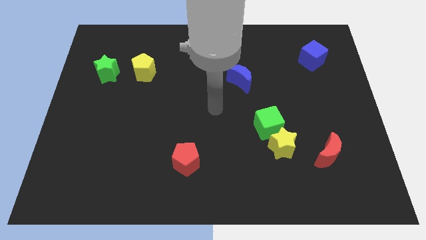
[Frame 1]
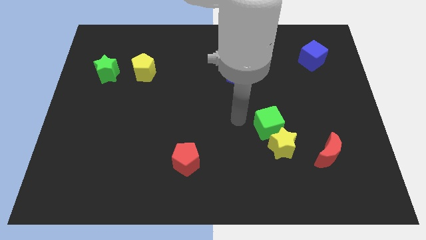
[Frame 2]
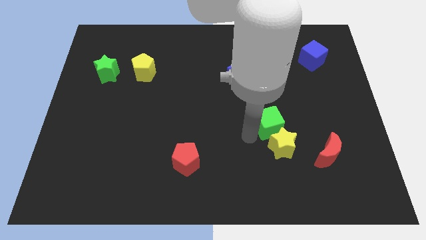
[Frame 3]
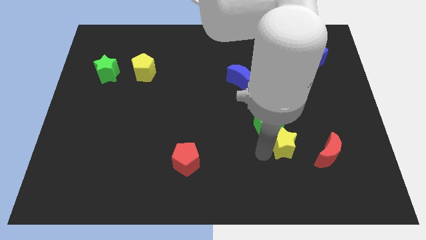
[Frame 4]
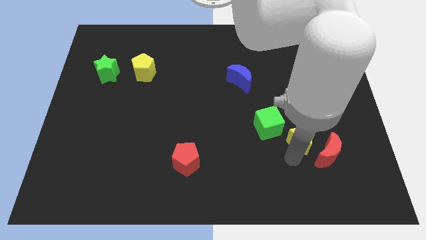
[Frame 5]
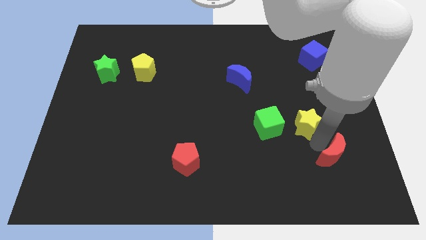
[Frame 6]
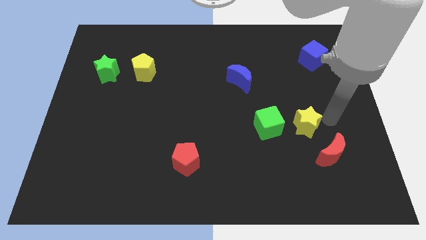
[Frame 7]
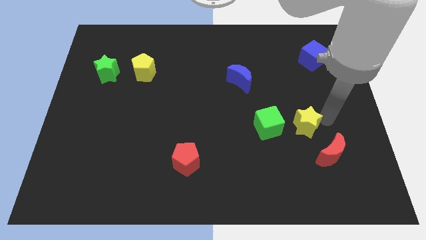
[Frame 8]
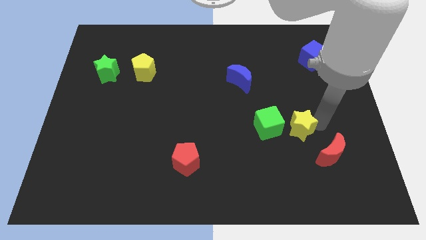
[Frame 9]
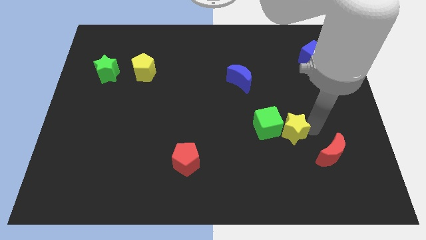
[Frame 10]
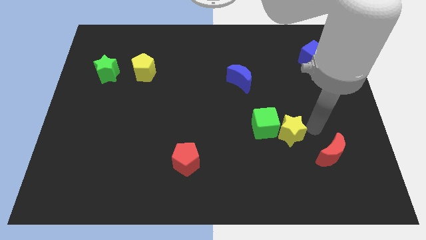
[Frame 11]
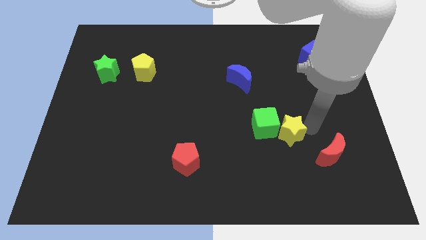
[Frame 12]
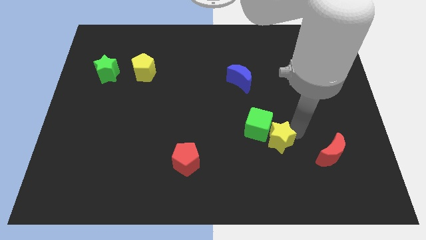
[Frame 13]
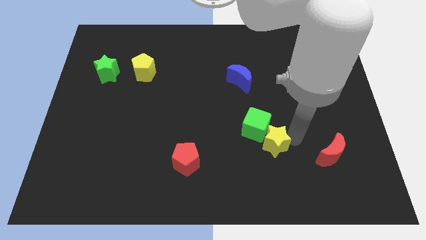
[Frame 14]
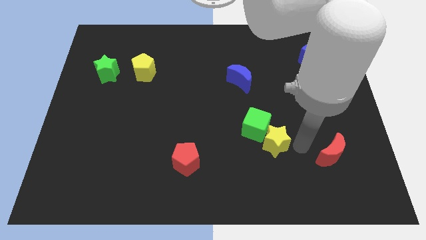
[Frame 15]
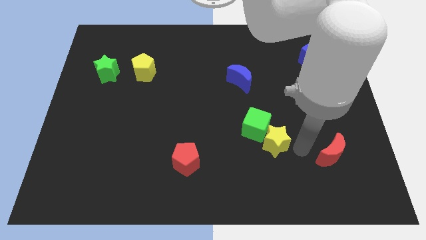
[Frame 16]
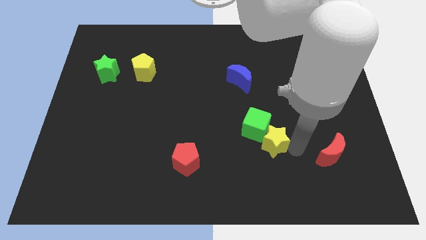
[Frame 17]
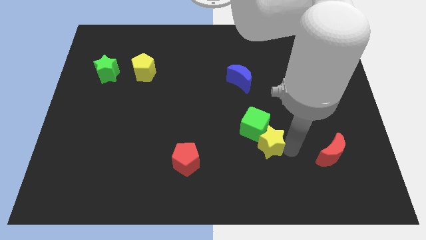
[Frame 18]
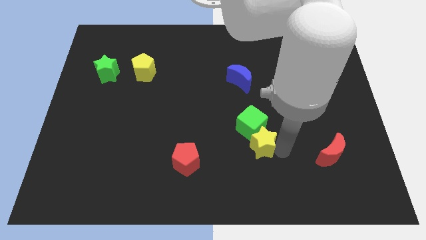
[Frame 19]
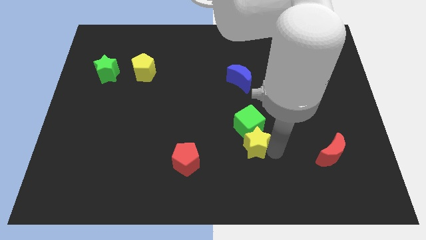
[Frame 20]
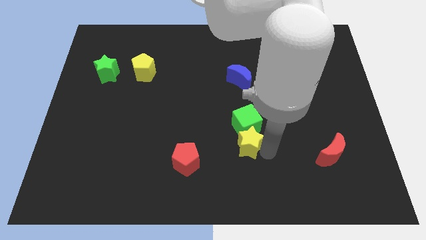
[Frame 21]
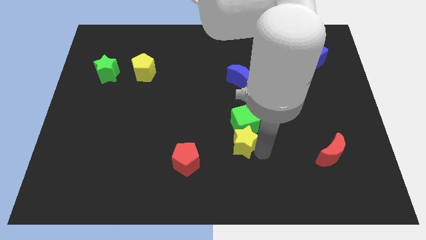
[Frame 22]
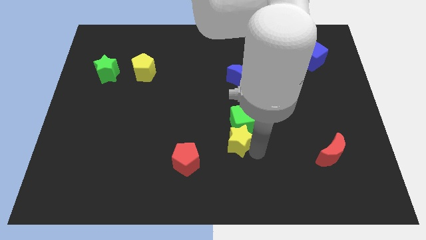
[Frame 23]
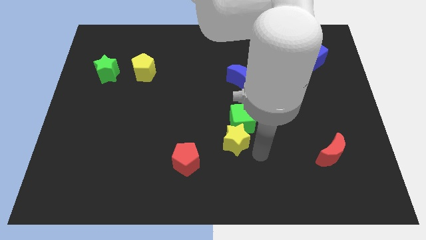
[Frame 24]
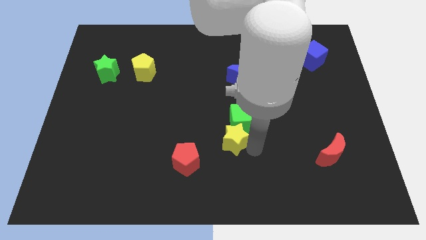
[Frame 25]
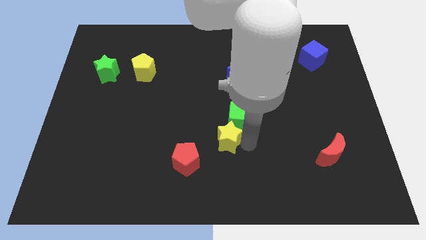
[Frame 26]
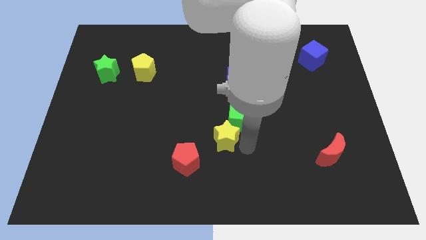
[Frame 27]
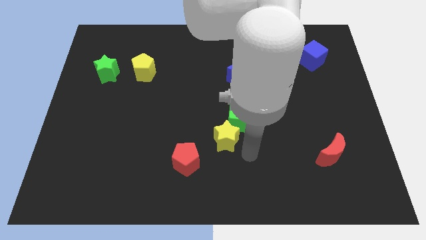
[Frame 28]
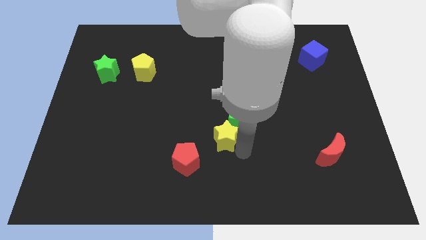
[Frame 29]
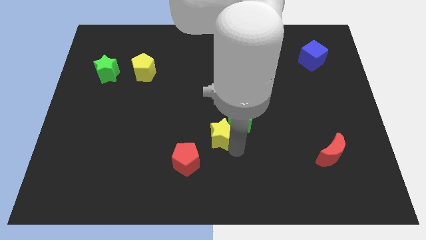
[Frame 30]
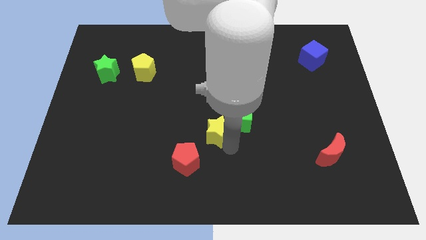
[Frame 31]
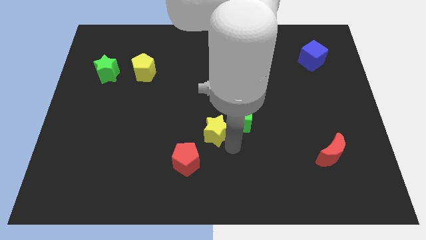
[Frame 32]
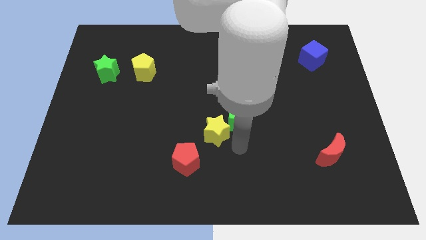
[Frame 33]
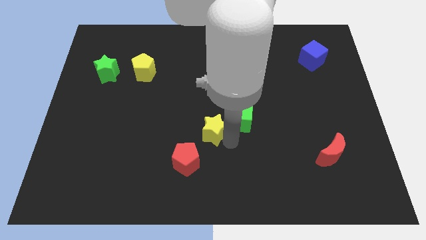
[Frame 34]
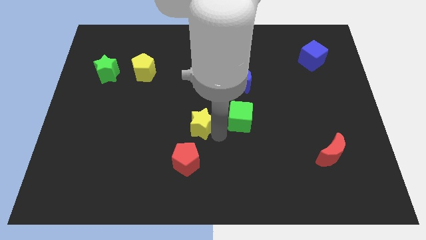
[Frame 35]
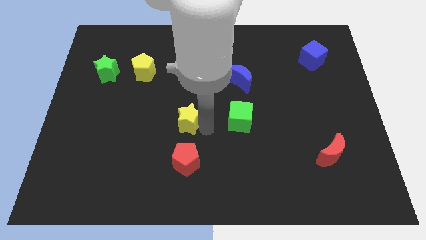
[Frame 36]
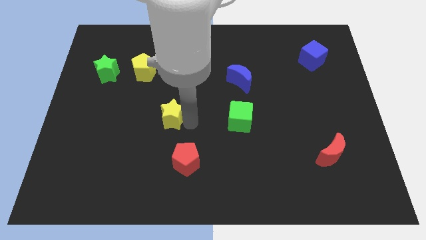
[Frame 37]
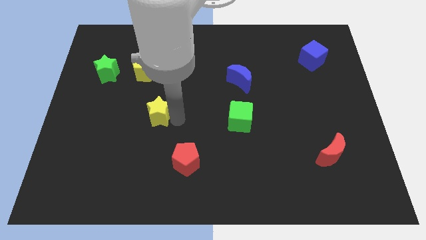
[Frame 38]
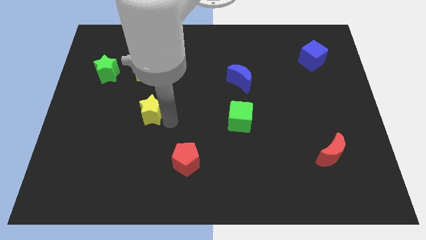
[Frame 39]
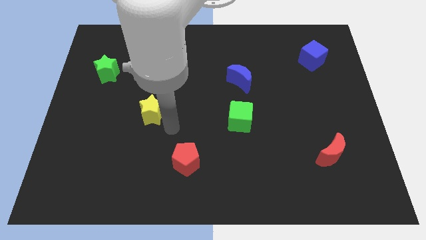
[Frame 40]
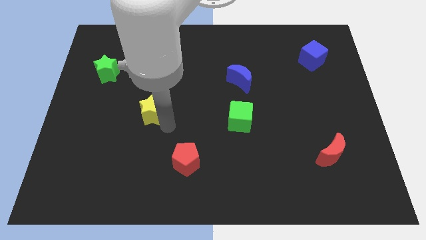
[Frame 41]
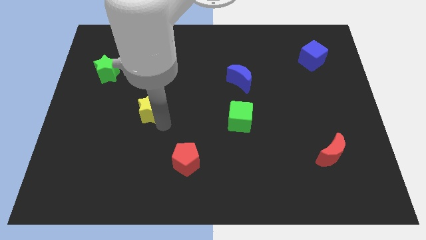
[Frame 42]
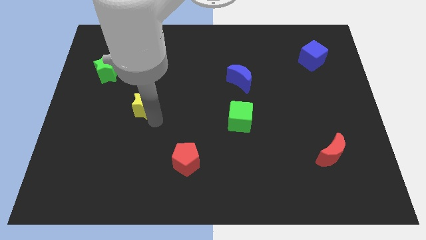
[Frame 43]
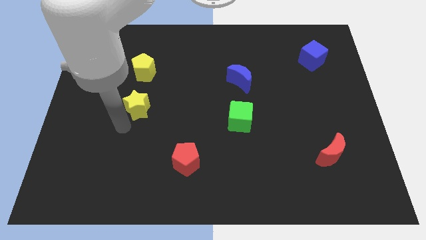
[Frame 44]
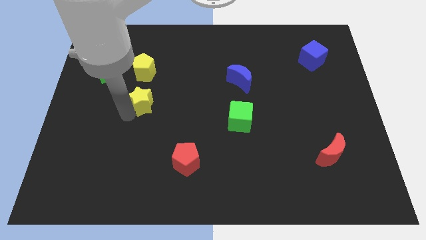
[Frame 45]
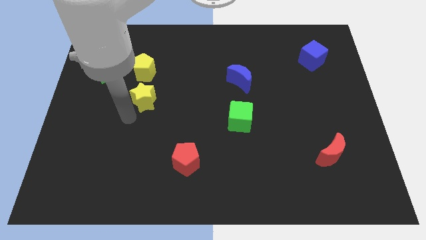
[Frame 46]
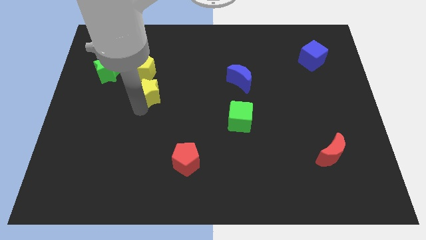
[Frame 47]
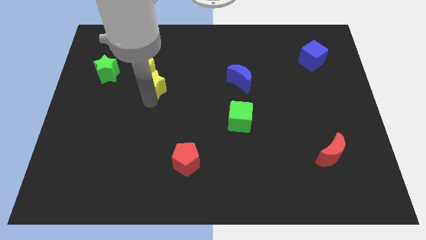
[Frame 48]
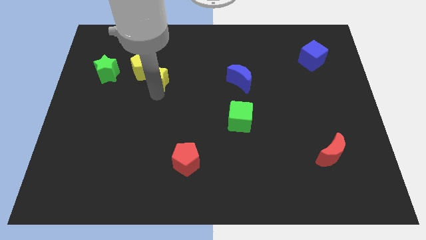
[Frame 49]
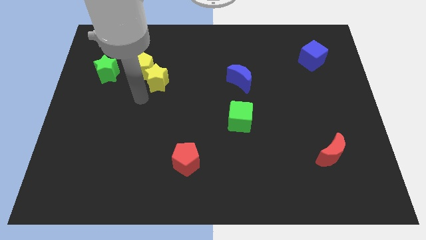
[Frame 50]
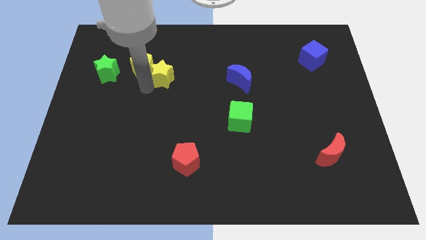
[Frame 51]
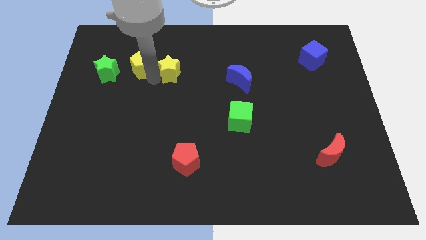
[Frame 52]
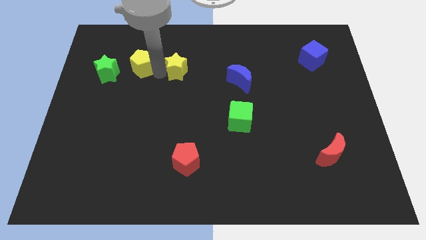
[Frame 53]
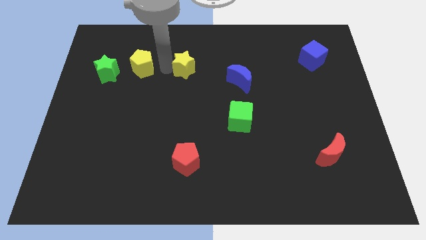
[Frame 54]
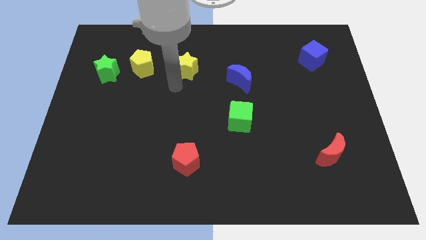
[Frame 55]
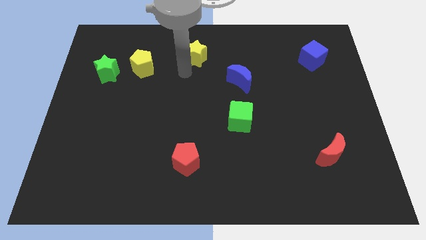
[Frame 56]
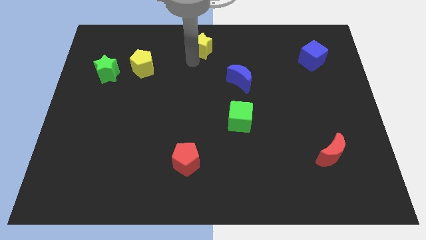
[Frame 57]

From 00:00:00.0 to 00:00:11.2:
slide the yellow star to the towards your base

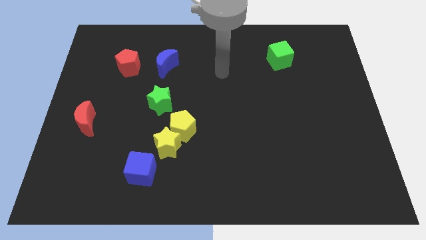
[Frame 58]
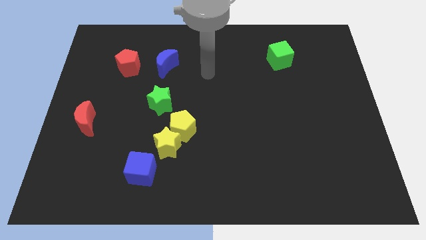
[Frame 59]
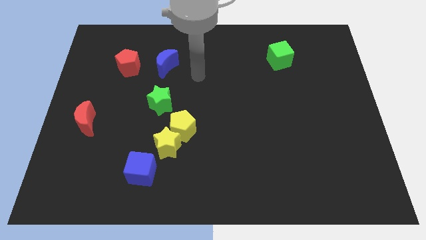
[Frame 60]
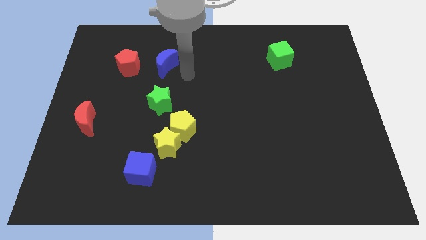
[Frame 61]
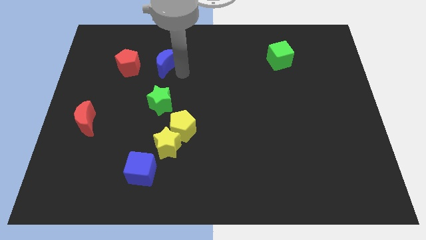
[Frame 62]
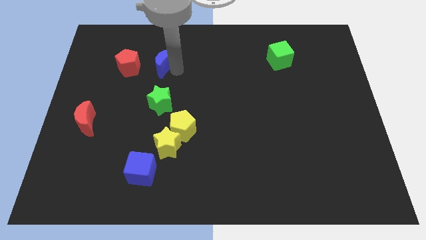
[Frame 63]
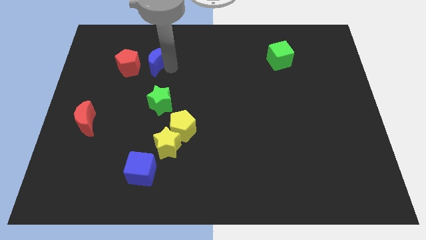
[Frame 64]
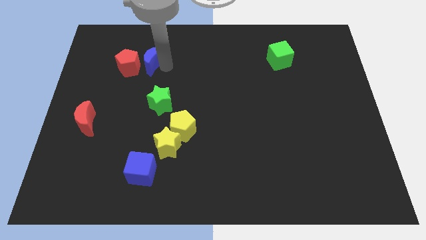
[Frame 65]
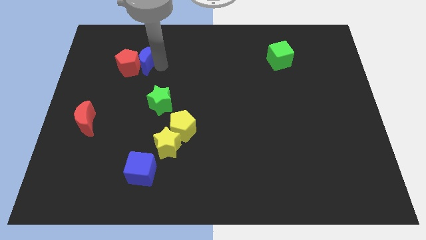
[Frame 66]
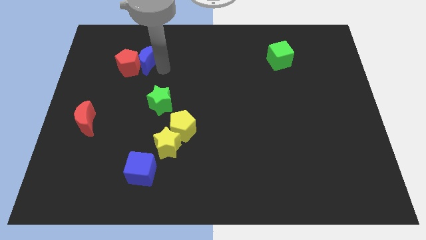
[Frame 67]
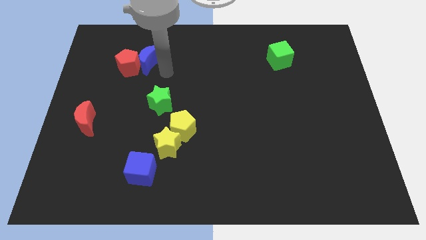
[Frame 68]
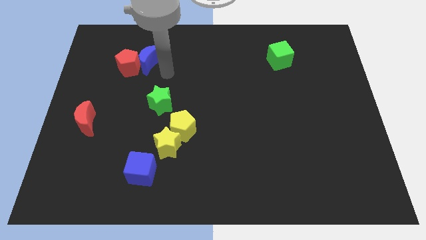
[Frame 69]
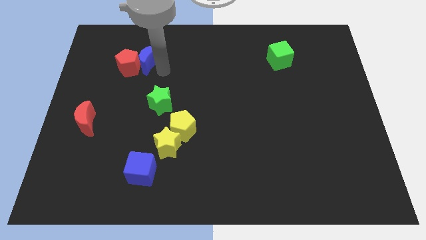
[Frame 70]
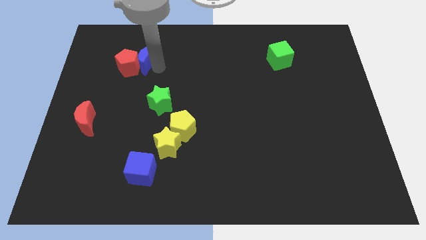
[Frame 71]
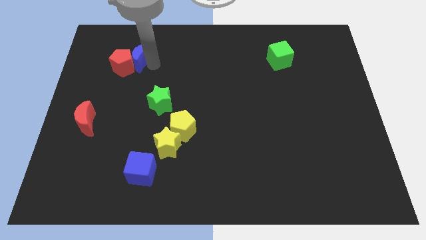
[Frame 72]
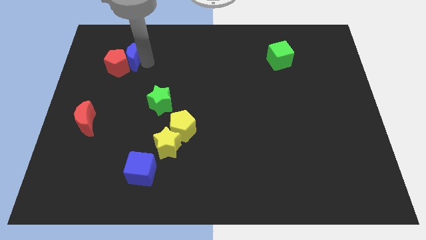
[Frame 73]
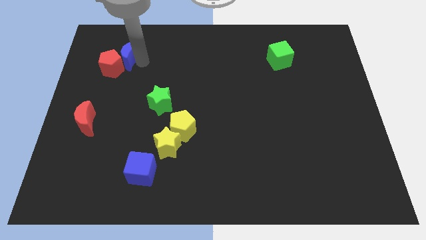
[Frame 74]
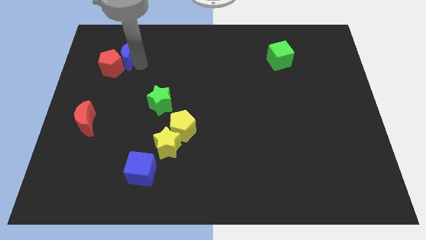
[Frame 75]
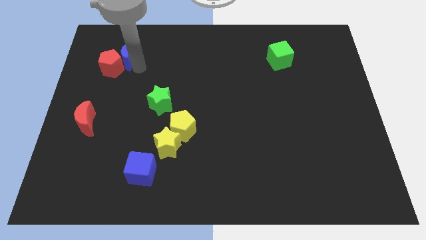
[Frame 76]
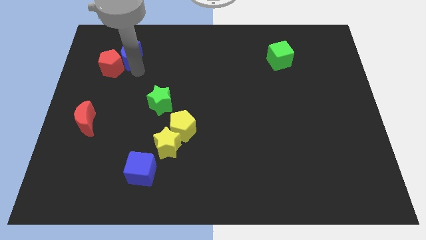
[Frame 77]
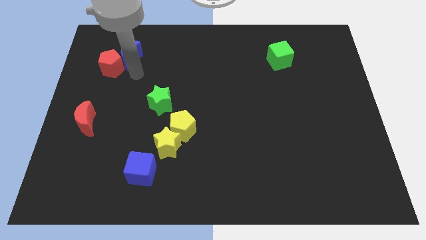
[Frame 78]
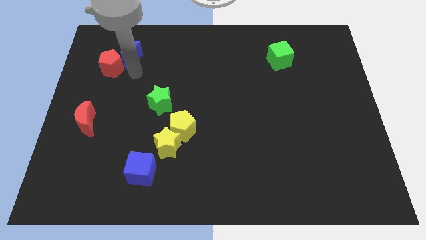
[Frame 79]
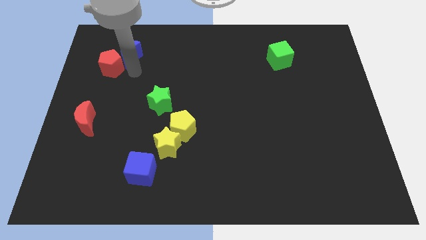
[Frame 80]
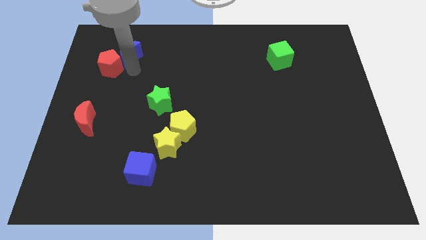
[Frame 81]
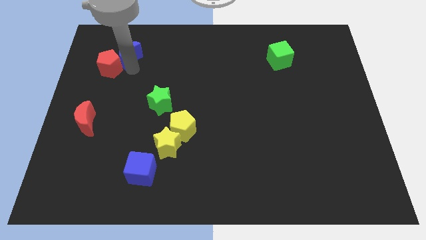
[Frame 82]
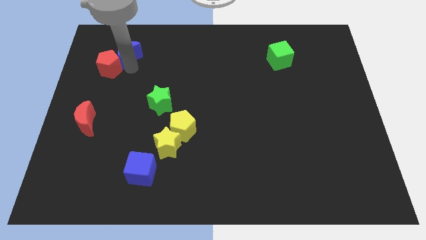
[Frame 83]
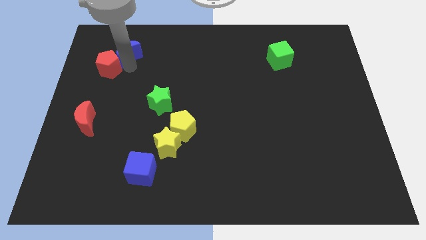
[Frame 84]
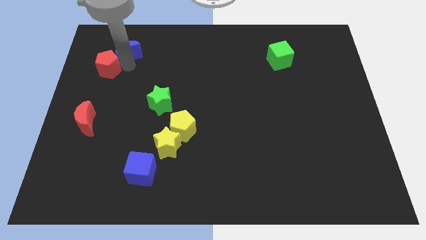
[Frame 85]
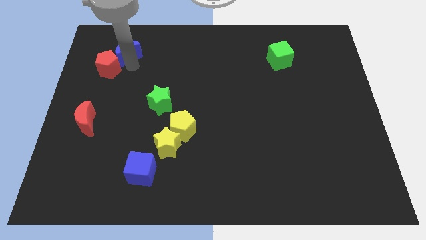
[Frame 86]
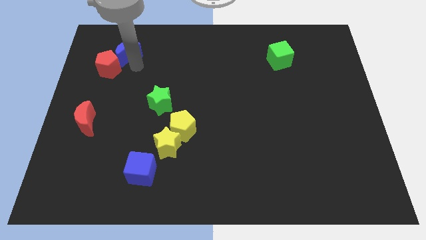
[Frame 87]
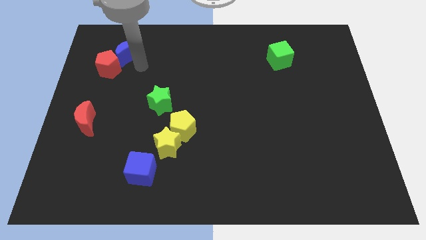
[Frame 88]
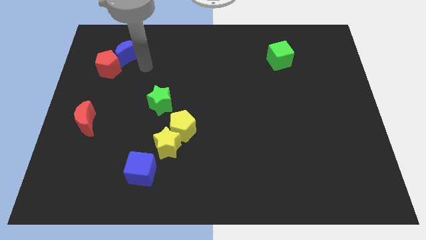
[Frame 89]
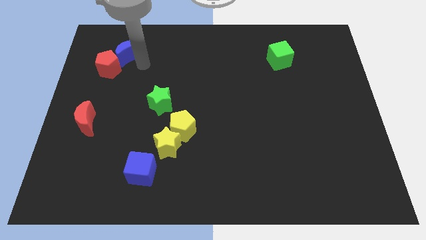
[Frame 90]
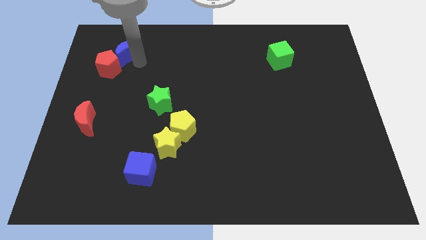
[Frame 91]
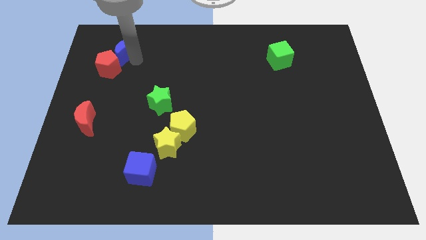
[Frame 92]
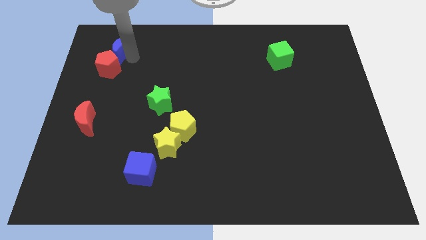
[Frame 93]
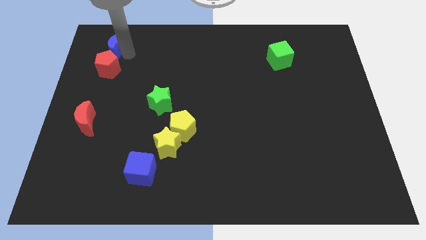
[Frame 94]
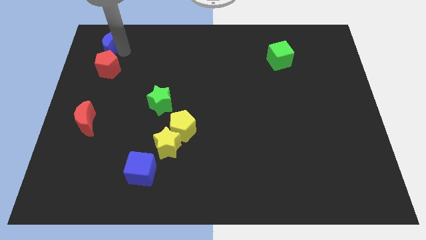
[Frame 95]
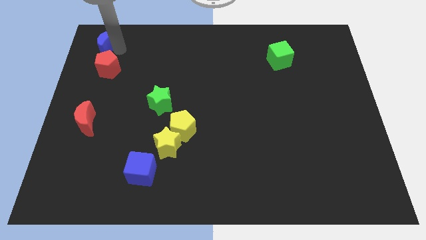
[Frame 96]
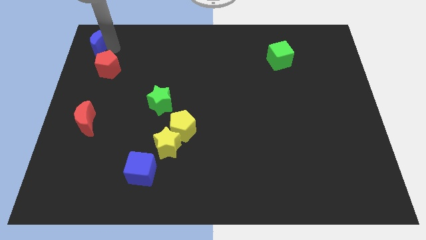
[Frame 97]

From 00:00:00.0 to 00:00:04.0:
put the blue moon to the top left of the board
